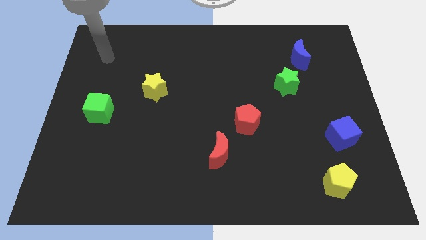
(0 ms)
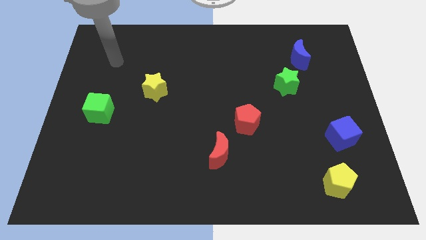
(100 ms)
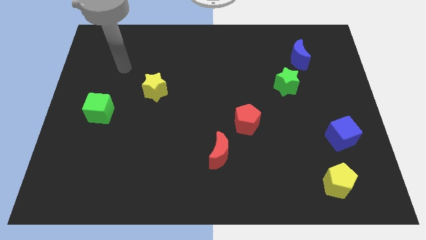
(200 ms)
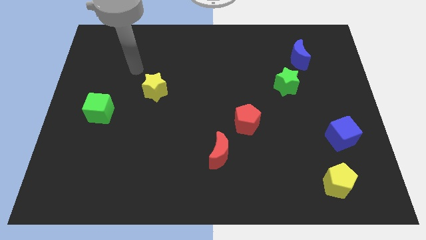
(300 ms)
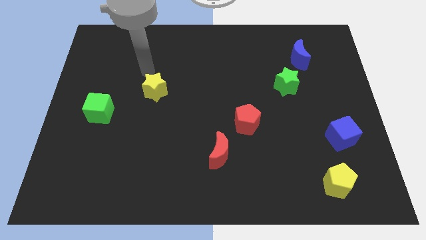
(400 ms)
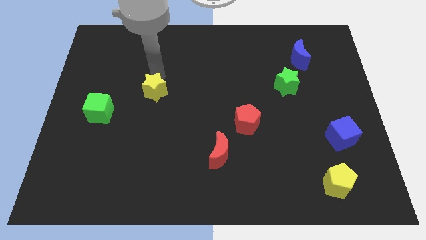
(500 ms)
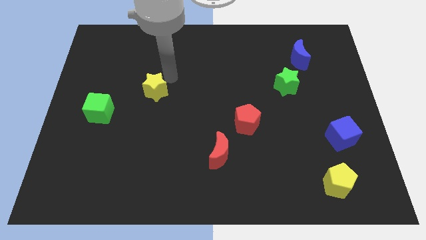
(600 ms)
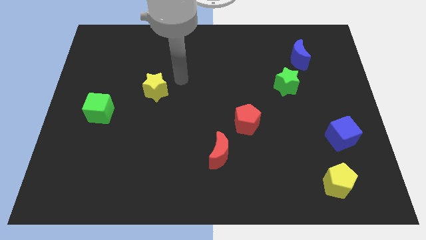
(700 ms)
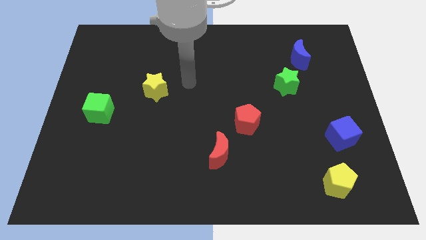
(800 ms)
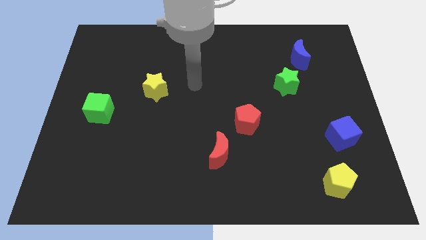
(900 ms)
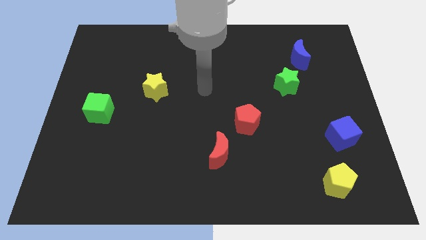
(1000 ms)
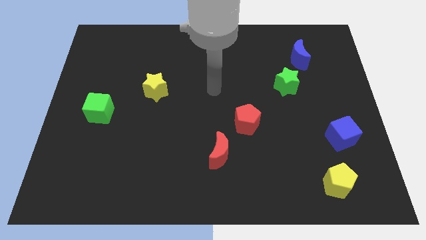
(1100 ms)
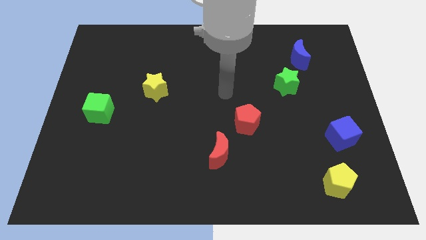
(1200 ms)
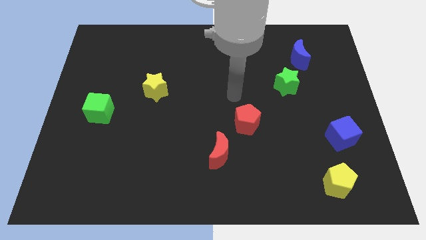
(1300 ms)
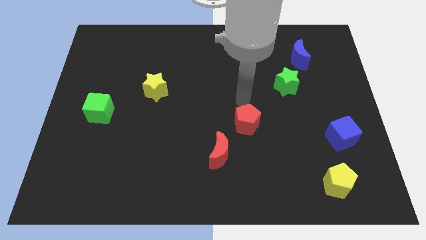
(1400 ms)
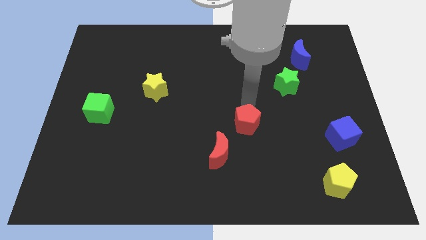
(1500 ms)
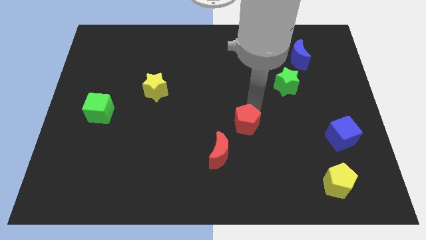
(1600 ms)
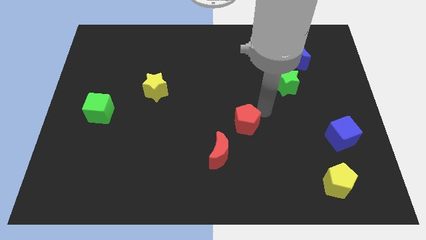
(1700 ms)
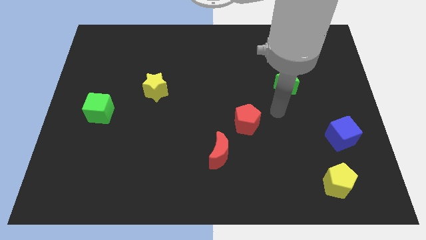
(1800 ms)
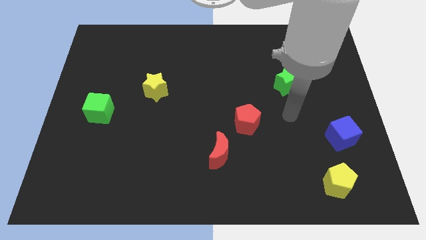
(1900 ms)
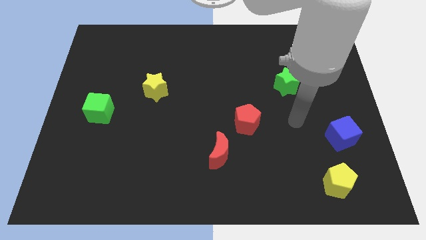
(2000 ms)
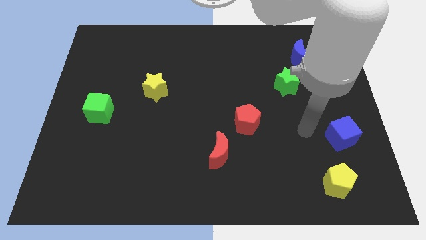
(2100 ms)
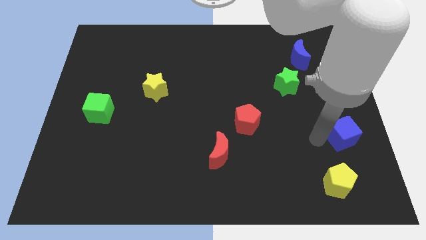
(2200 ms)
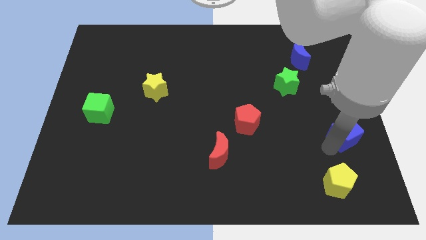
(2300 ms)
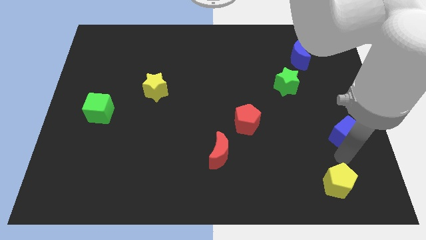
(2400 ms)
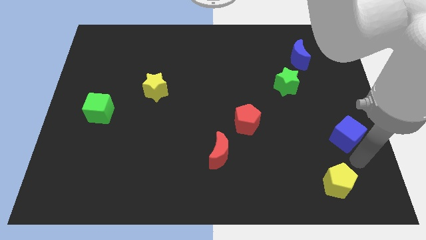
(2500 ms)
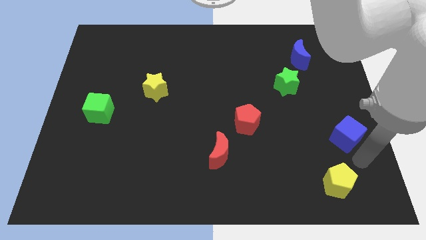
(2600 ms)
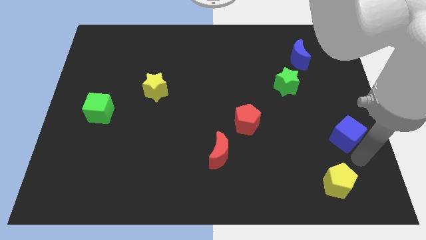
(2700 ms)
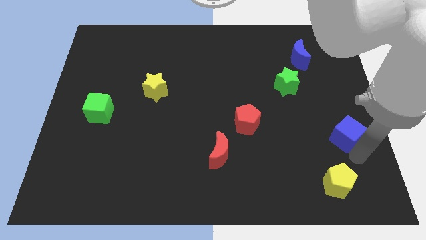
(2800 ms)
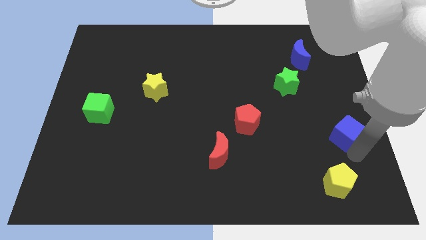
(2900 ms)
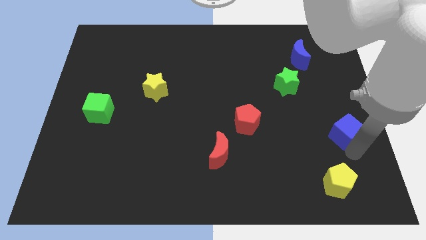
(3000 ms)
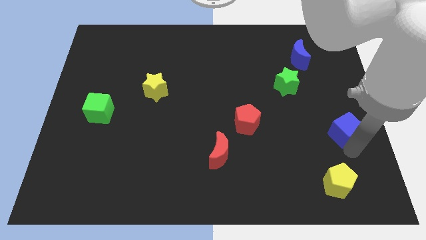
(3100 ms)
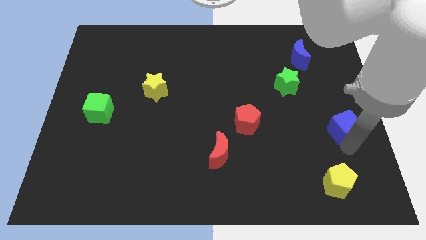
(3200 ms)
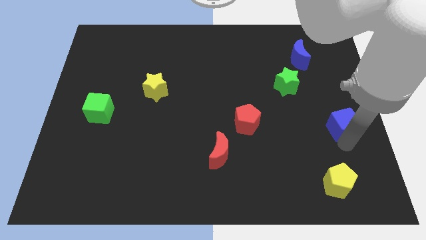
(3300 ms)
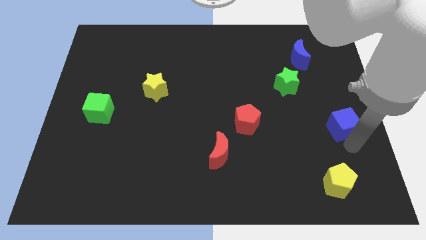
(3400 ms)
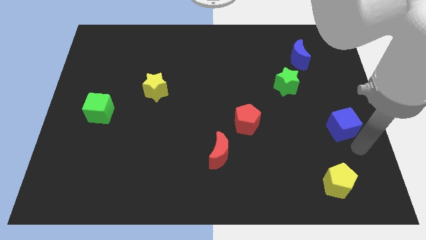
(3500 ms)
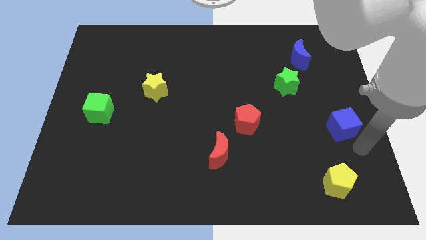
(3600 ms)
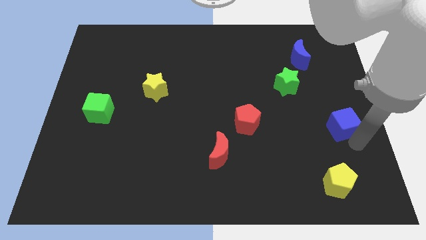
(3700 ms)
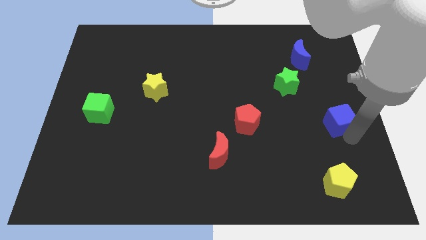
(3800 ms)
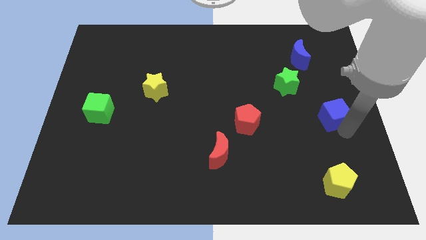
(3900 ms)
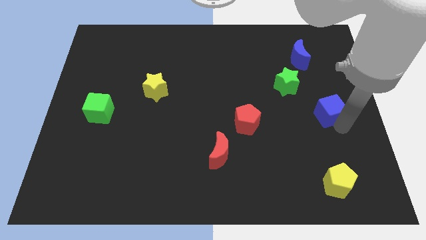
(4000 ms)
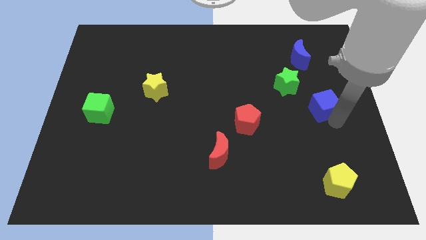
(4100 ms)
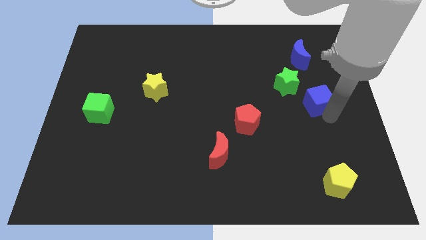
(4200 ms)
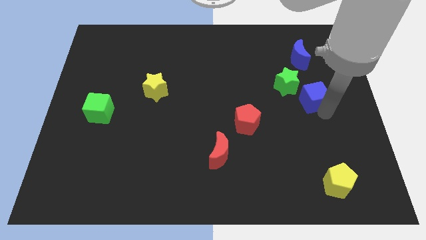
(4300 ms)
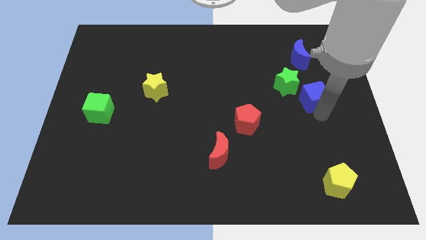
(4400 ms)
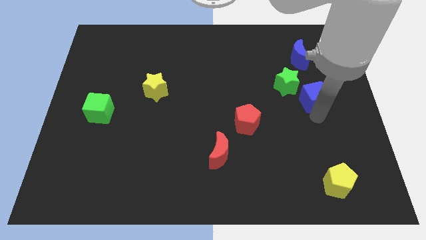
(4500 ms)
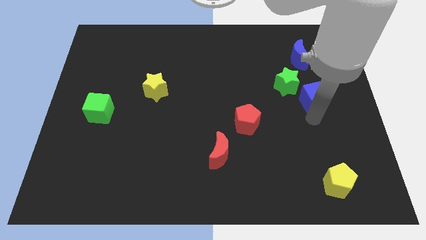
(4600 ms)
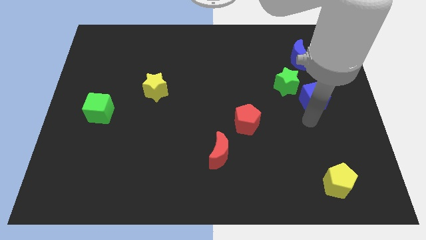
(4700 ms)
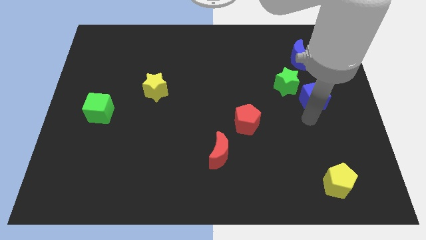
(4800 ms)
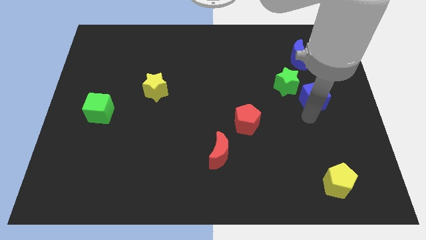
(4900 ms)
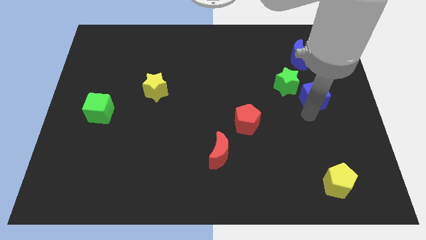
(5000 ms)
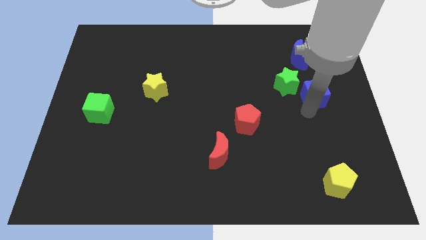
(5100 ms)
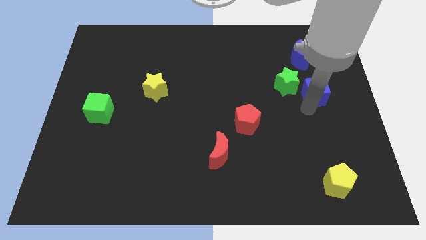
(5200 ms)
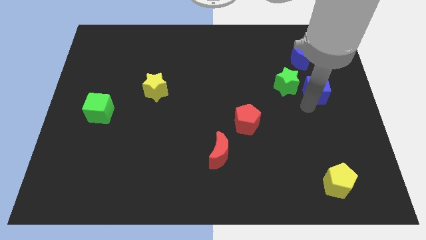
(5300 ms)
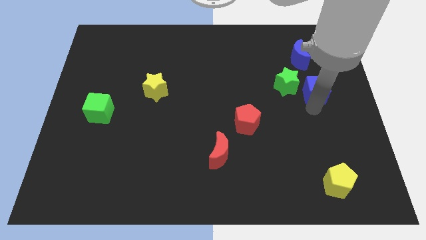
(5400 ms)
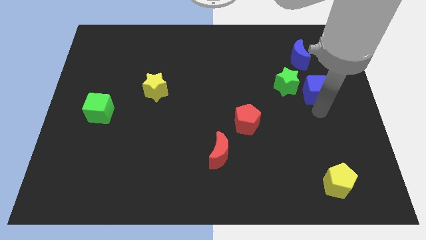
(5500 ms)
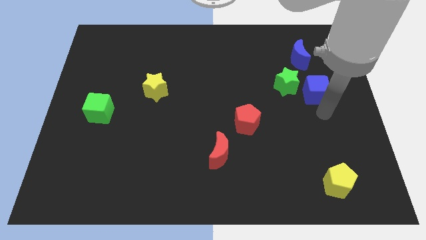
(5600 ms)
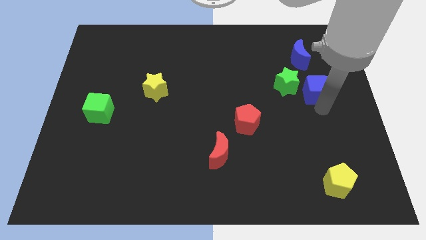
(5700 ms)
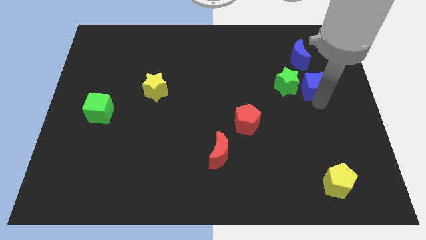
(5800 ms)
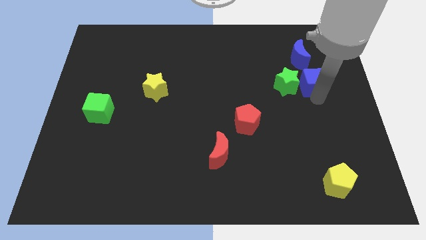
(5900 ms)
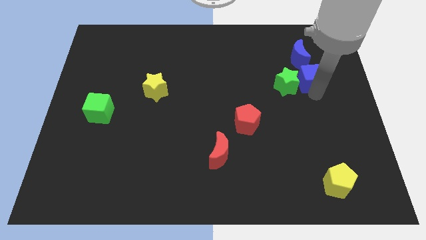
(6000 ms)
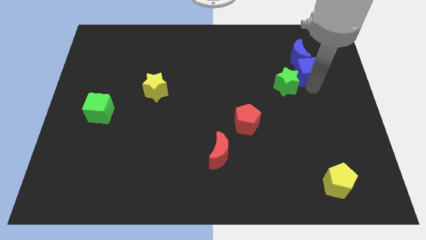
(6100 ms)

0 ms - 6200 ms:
push the blue cube to the blue moon

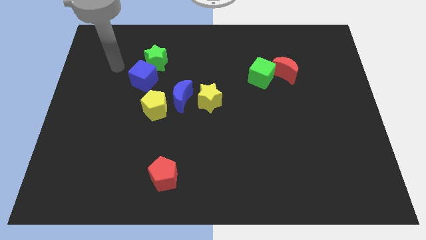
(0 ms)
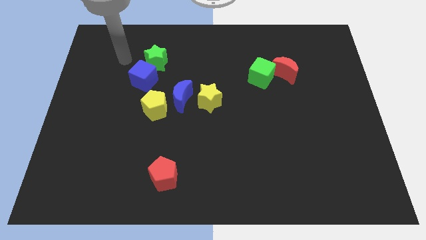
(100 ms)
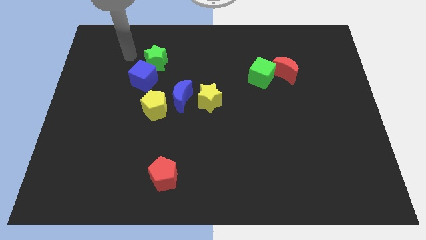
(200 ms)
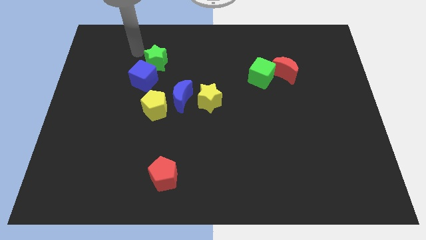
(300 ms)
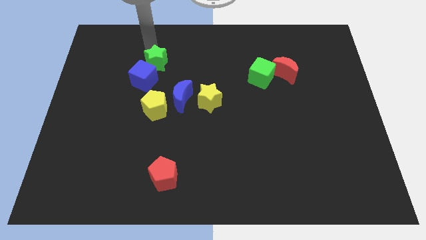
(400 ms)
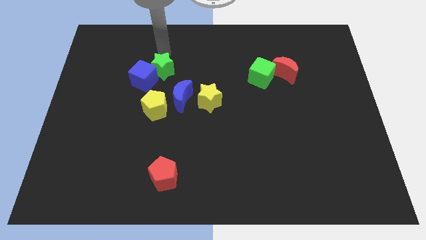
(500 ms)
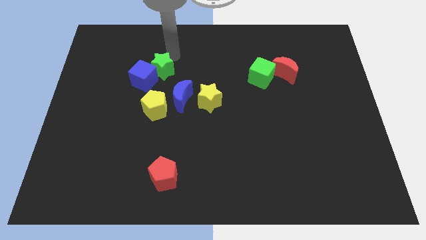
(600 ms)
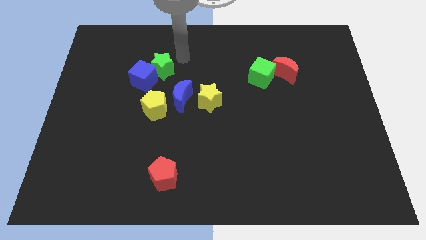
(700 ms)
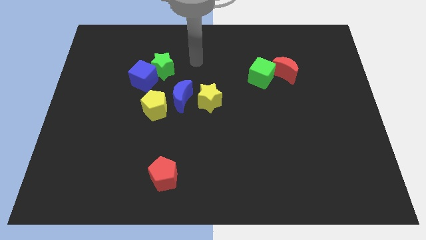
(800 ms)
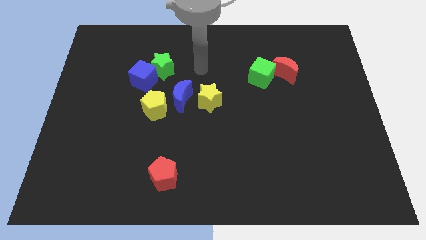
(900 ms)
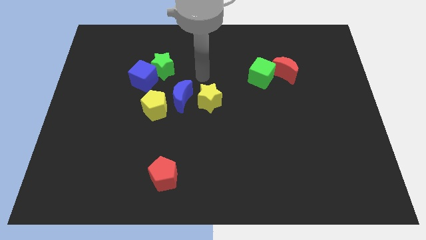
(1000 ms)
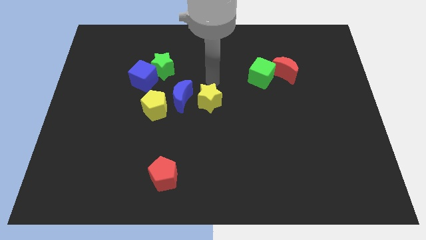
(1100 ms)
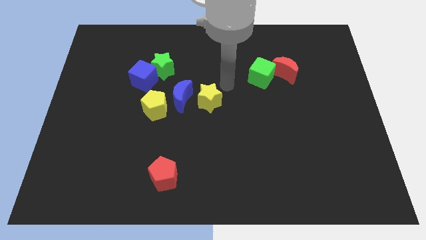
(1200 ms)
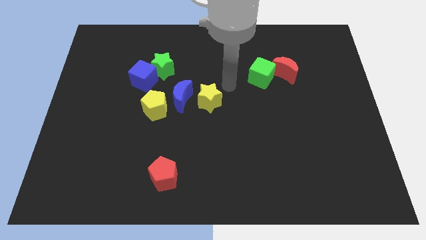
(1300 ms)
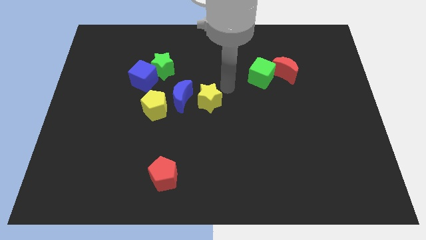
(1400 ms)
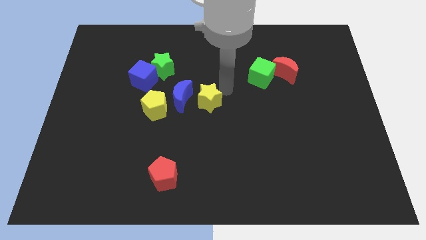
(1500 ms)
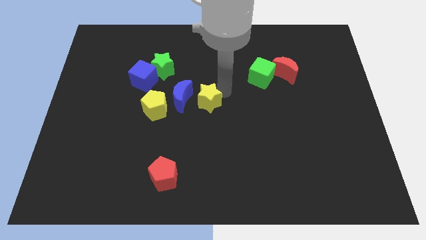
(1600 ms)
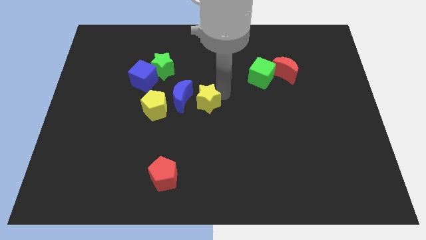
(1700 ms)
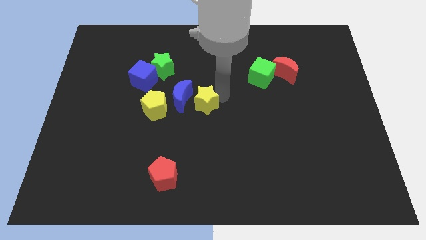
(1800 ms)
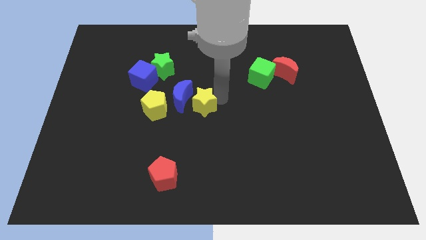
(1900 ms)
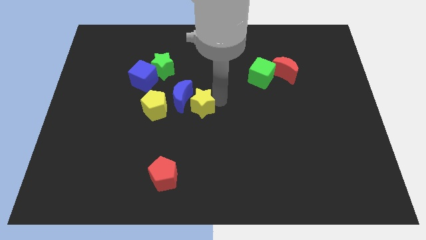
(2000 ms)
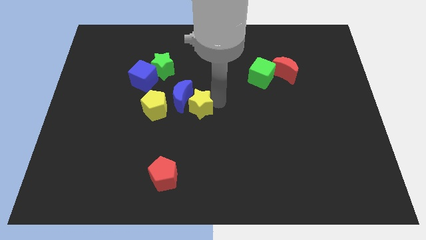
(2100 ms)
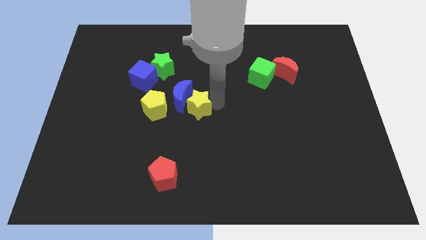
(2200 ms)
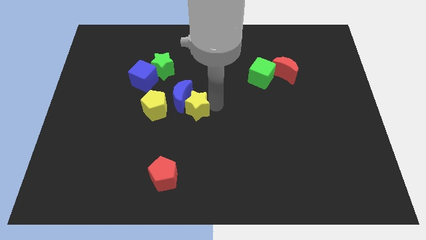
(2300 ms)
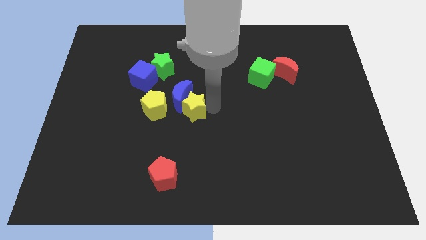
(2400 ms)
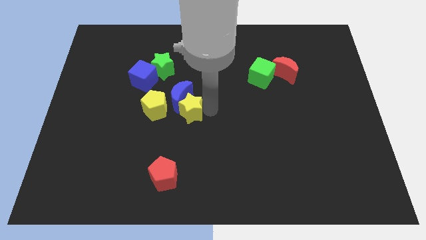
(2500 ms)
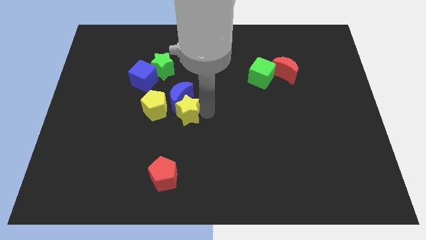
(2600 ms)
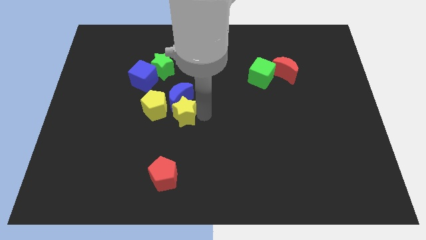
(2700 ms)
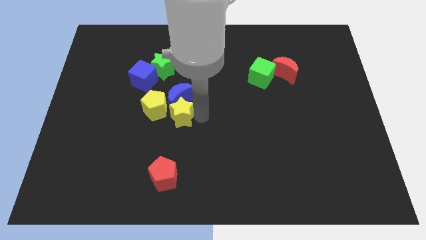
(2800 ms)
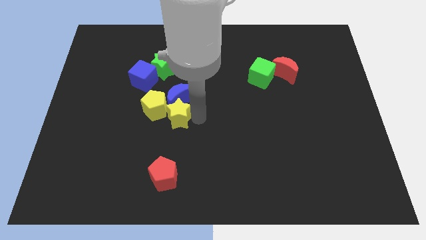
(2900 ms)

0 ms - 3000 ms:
put the yellow star to the yellow pentagon
